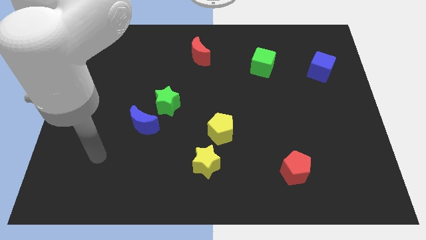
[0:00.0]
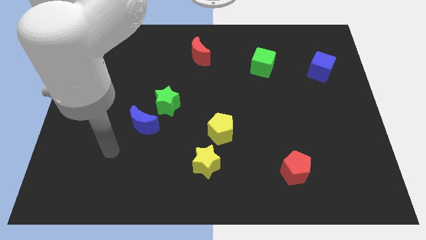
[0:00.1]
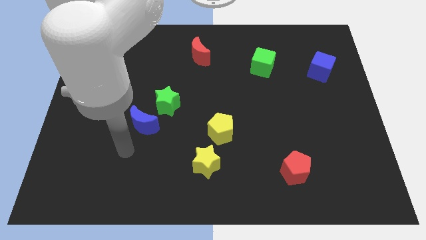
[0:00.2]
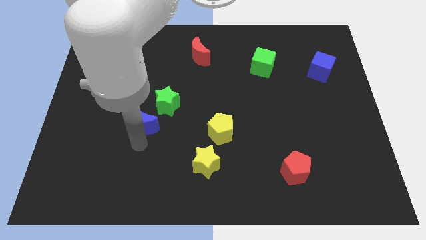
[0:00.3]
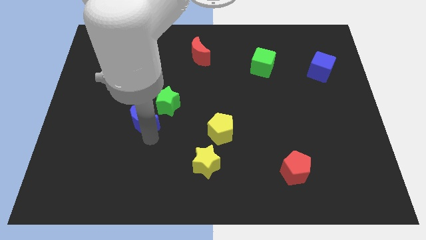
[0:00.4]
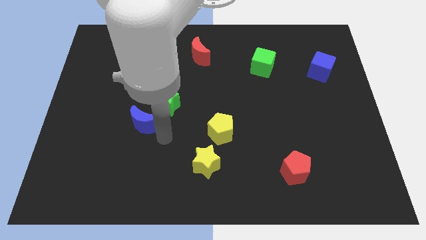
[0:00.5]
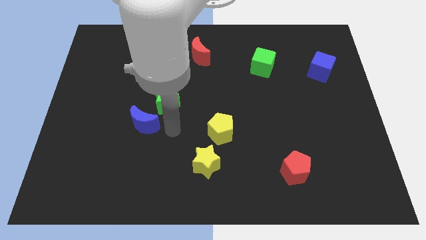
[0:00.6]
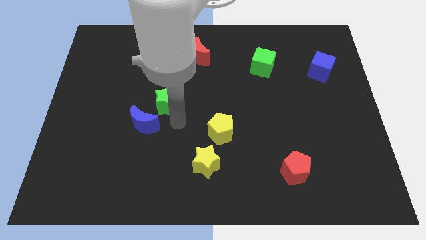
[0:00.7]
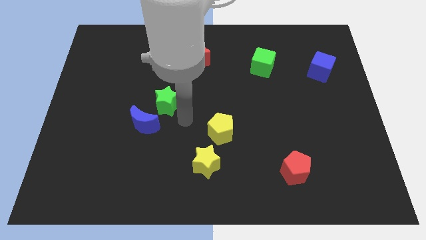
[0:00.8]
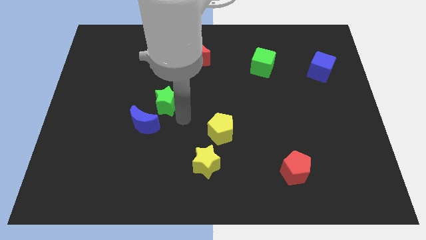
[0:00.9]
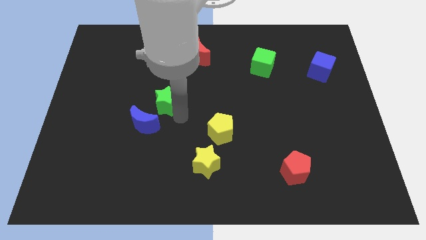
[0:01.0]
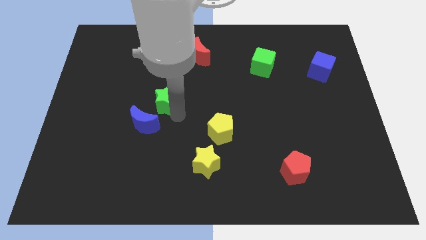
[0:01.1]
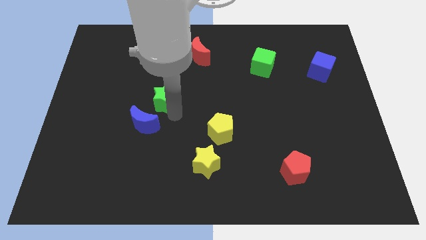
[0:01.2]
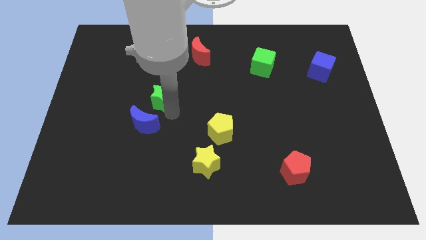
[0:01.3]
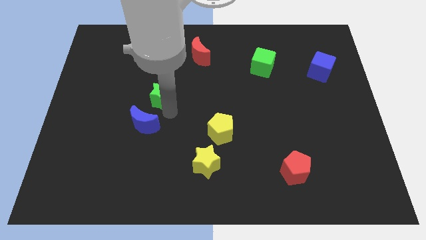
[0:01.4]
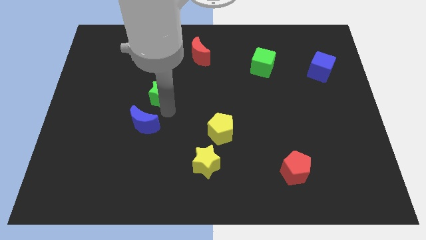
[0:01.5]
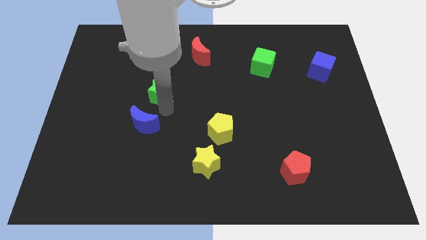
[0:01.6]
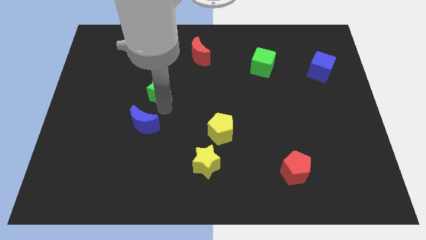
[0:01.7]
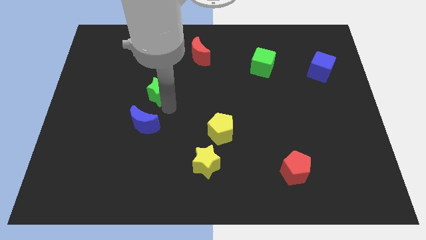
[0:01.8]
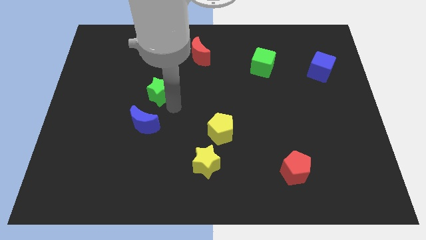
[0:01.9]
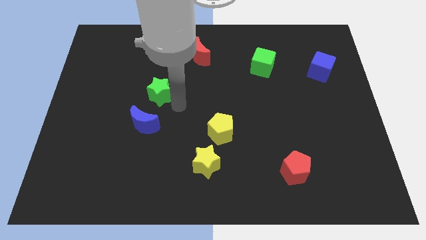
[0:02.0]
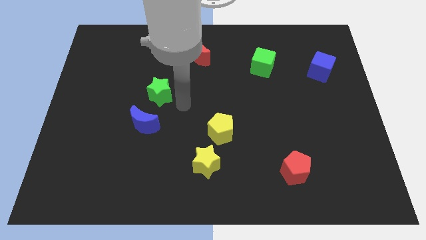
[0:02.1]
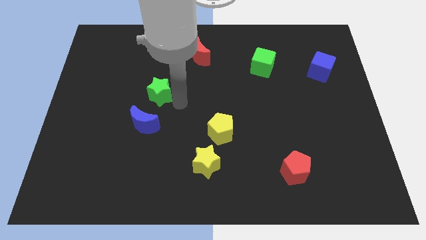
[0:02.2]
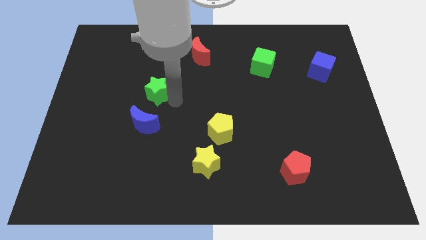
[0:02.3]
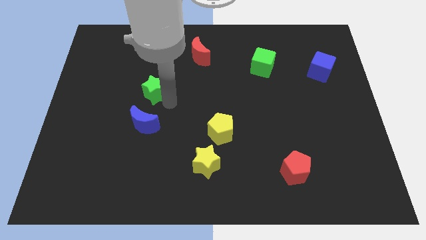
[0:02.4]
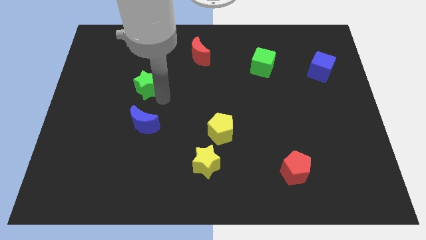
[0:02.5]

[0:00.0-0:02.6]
move the green star a bit upwards and to the left

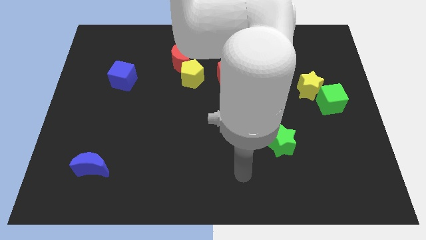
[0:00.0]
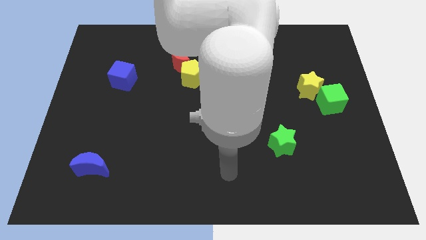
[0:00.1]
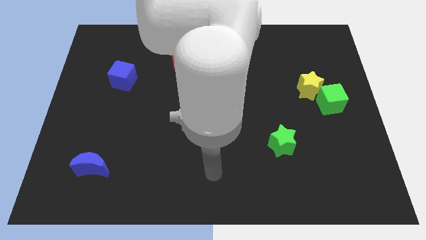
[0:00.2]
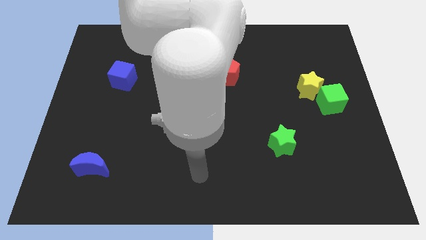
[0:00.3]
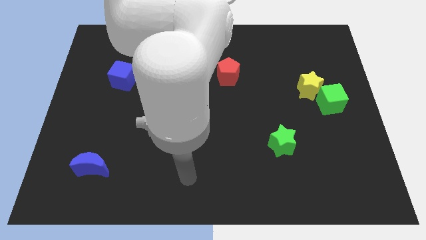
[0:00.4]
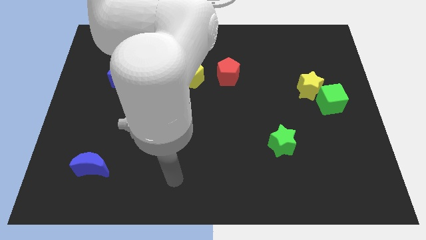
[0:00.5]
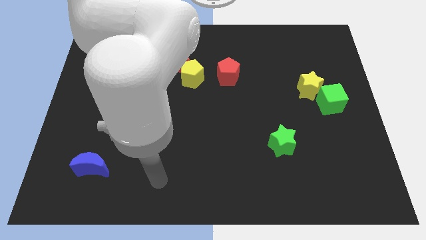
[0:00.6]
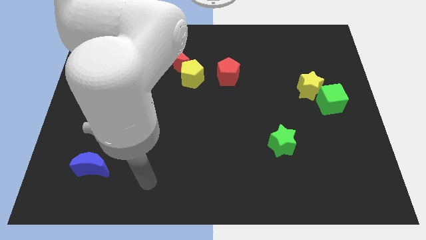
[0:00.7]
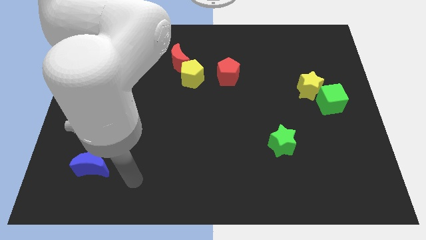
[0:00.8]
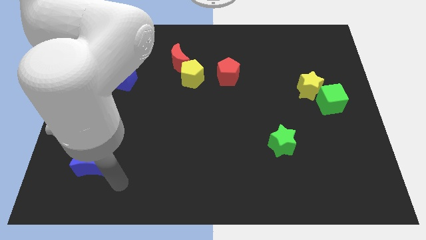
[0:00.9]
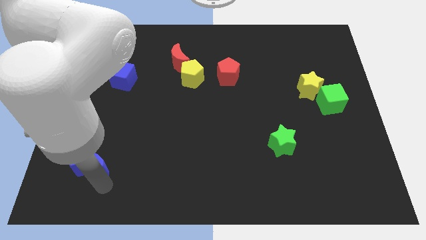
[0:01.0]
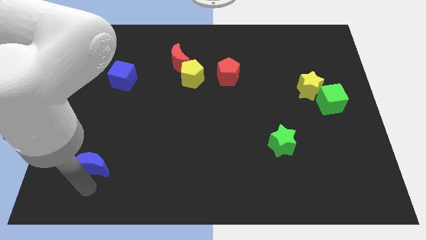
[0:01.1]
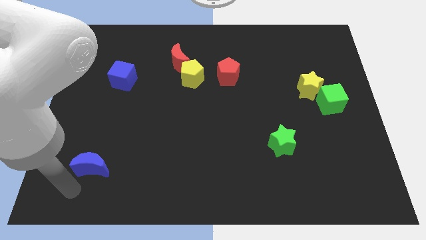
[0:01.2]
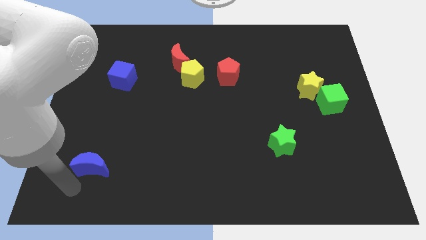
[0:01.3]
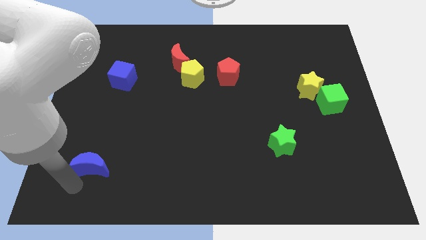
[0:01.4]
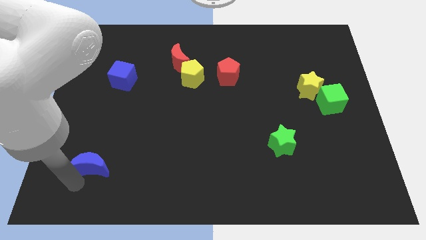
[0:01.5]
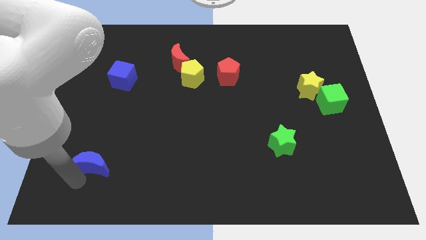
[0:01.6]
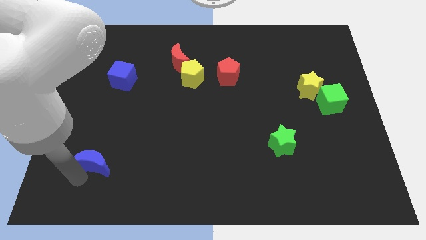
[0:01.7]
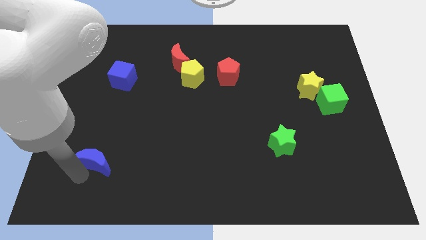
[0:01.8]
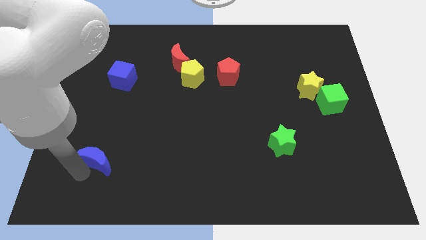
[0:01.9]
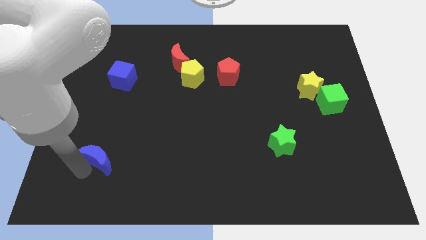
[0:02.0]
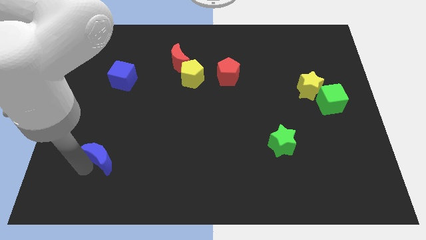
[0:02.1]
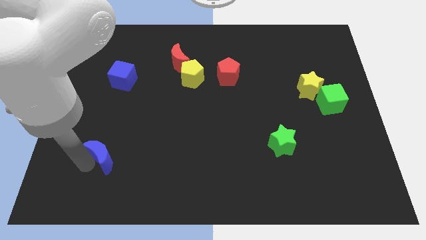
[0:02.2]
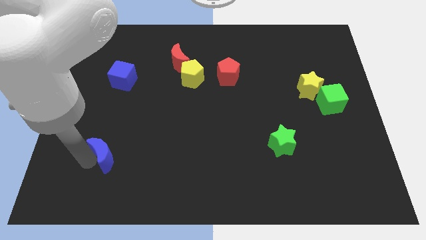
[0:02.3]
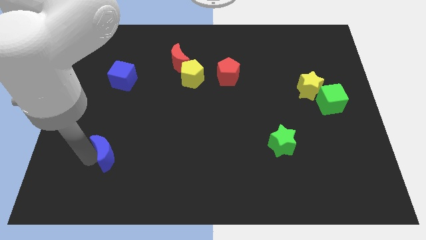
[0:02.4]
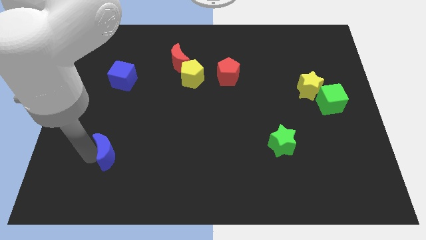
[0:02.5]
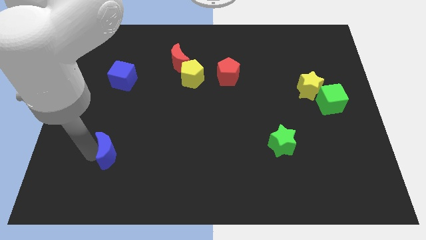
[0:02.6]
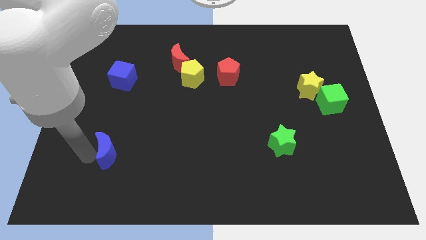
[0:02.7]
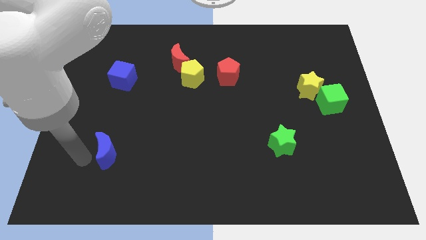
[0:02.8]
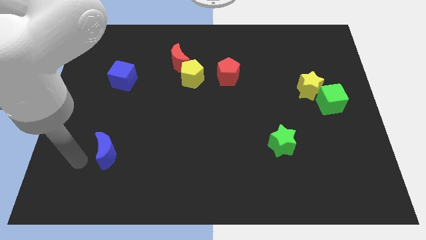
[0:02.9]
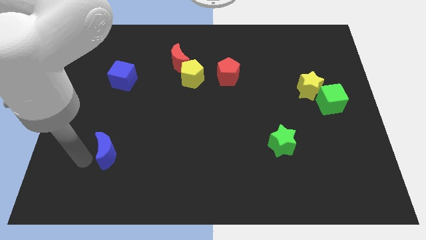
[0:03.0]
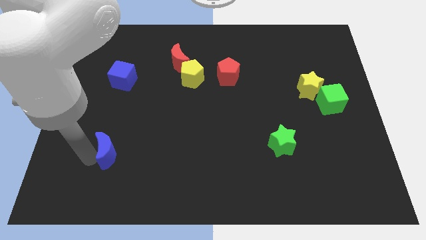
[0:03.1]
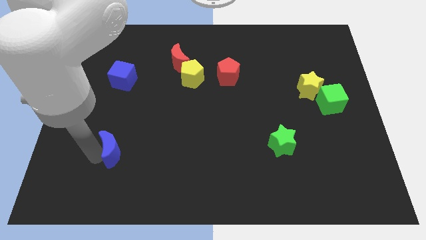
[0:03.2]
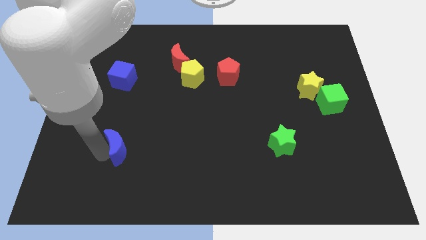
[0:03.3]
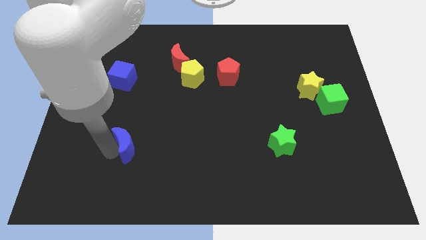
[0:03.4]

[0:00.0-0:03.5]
move the blue moon up and to the right slightly

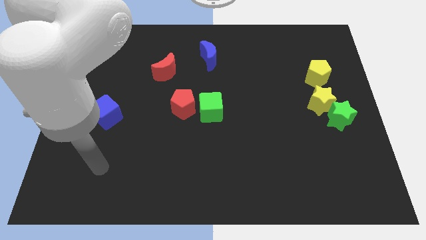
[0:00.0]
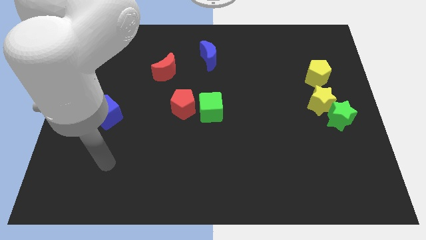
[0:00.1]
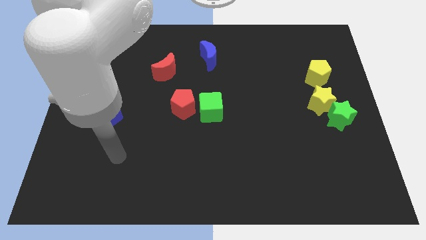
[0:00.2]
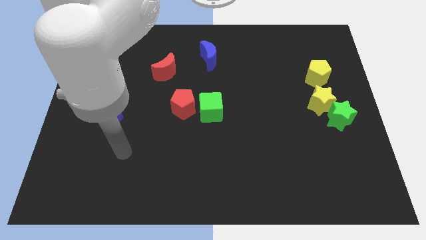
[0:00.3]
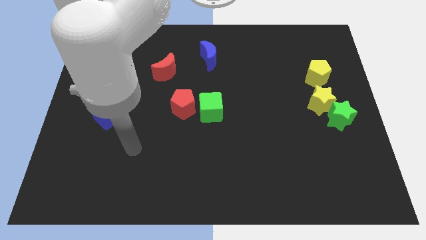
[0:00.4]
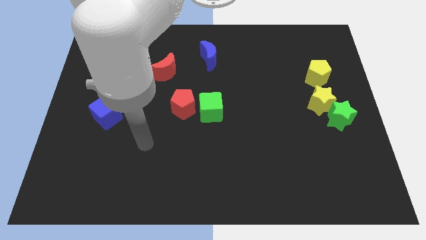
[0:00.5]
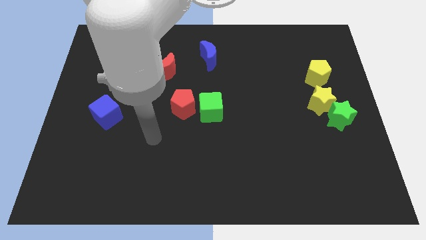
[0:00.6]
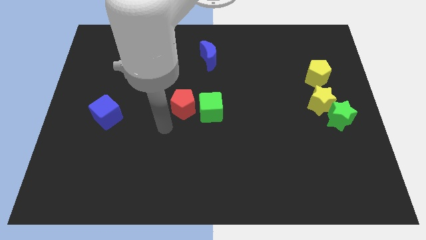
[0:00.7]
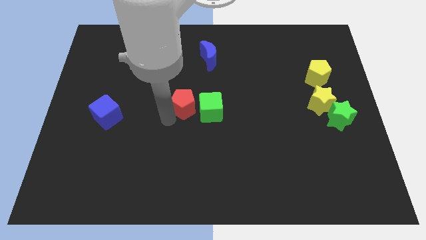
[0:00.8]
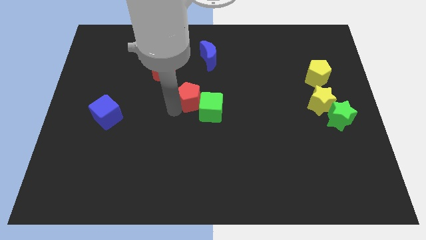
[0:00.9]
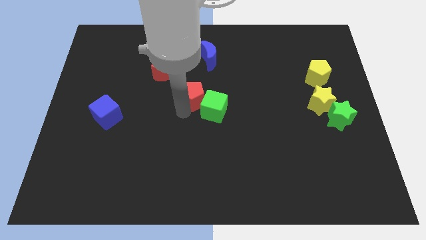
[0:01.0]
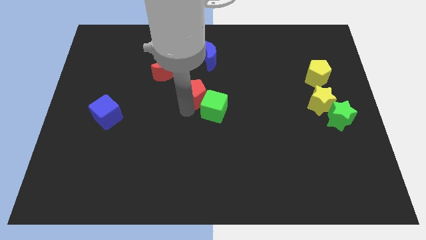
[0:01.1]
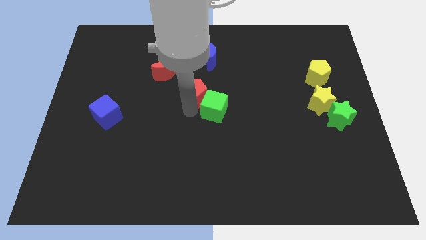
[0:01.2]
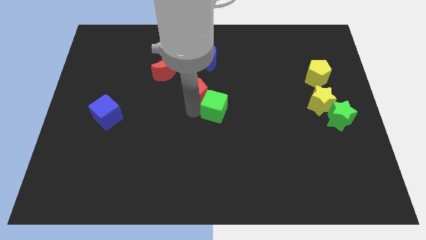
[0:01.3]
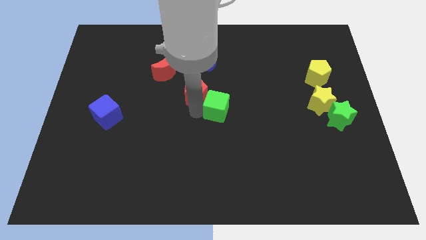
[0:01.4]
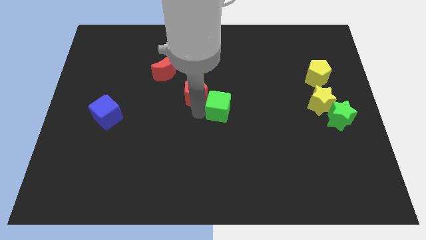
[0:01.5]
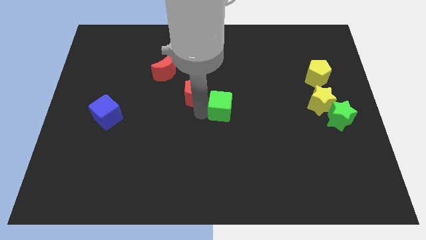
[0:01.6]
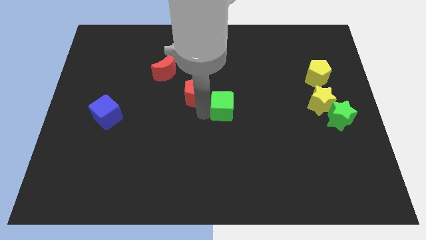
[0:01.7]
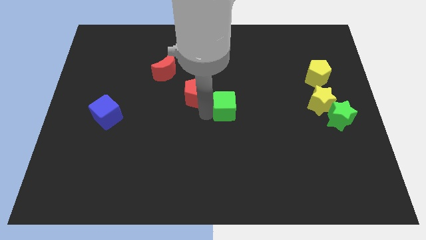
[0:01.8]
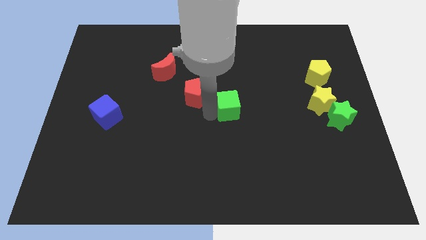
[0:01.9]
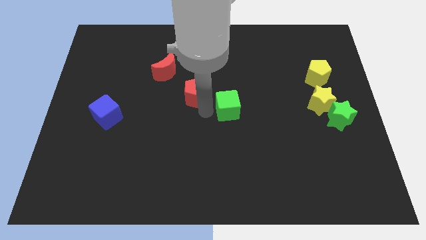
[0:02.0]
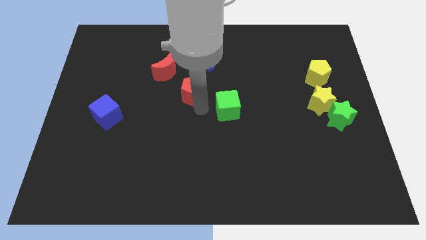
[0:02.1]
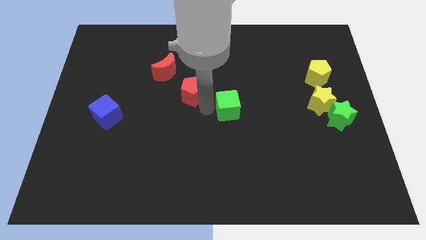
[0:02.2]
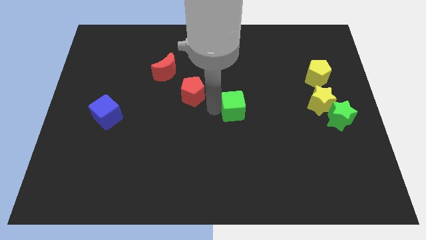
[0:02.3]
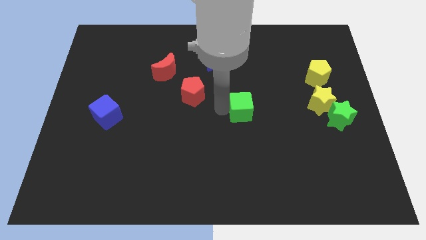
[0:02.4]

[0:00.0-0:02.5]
move the green cube right a bit
